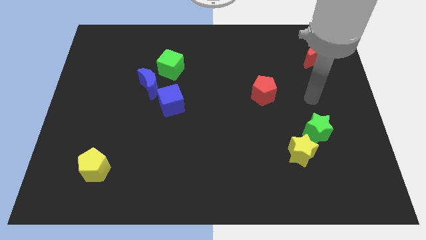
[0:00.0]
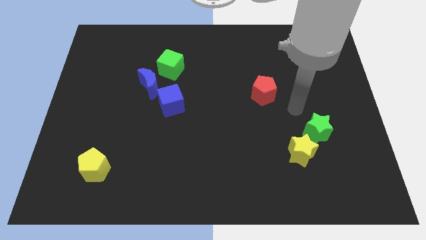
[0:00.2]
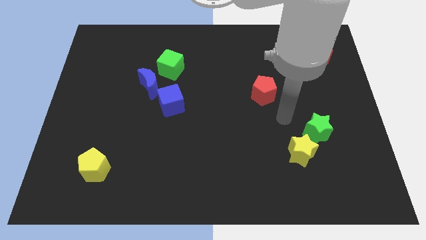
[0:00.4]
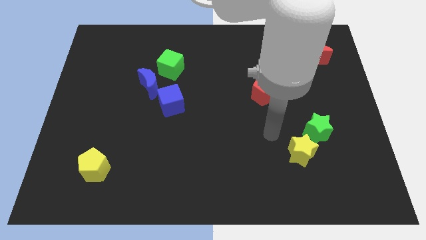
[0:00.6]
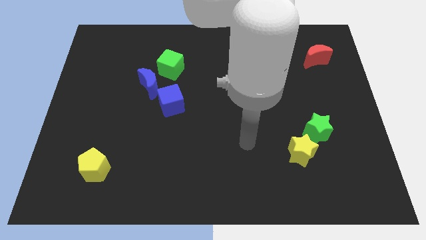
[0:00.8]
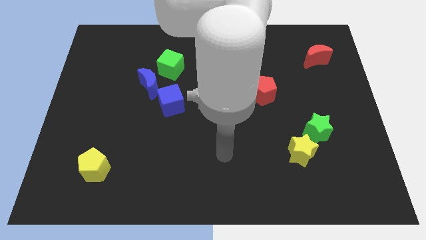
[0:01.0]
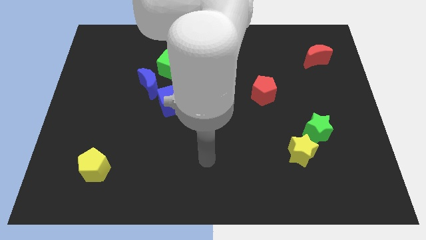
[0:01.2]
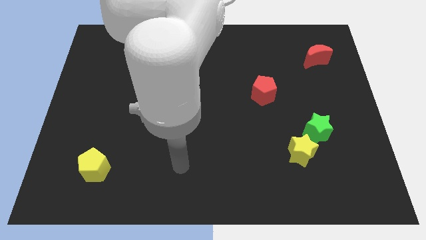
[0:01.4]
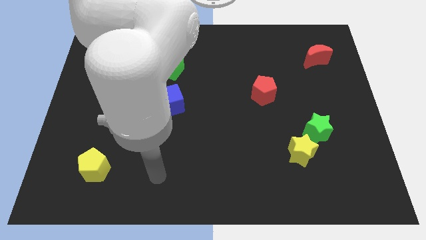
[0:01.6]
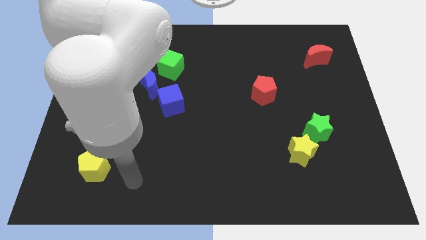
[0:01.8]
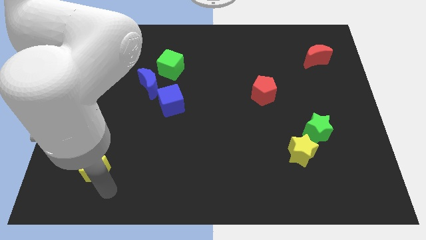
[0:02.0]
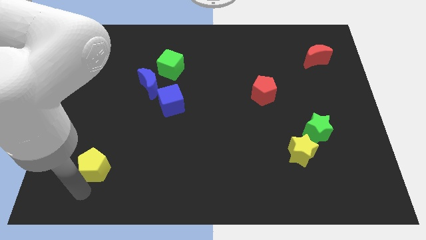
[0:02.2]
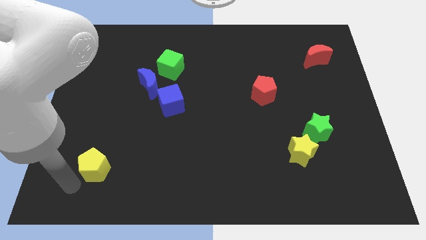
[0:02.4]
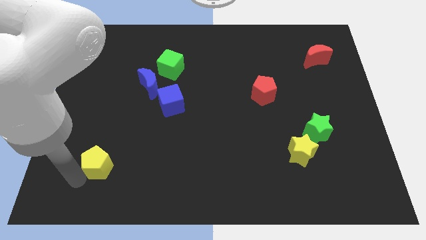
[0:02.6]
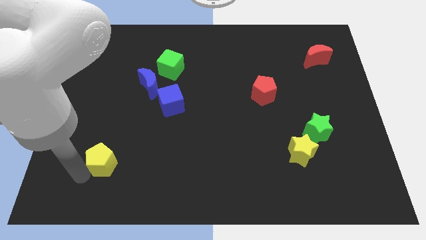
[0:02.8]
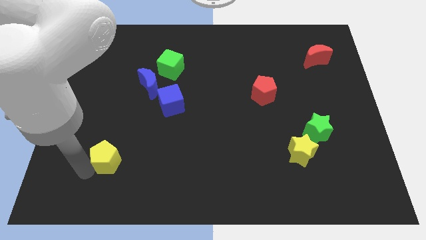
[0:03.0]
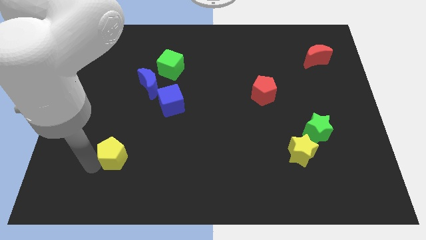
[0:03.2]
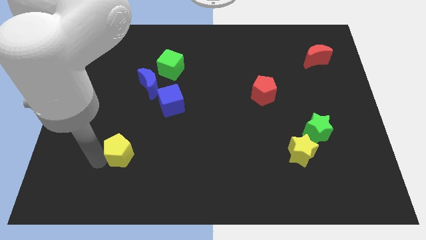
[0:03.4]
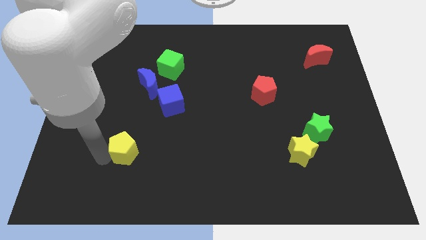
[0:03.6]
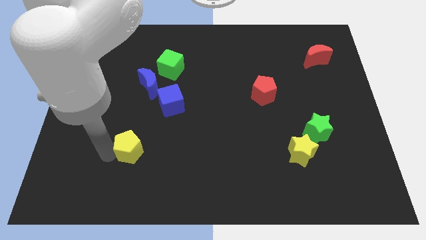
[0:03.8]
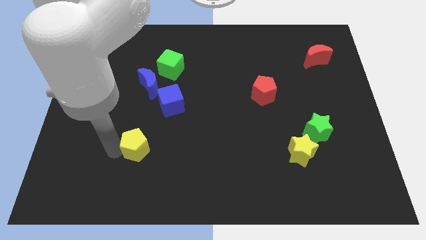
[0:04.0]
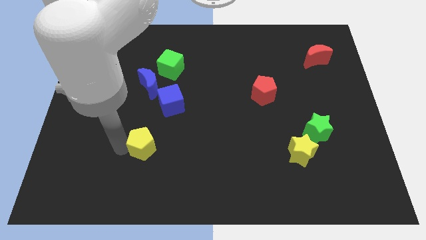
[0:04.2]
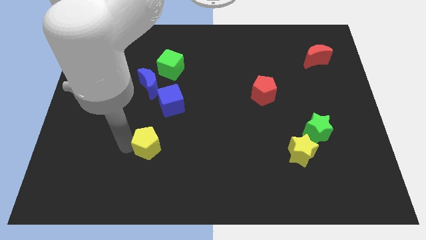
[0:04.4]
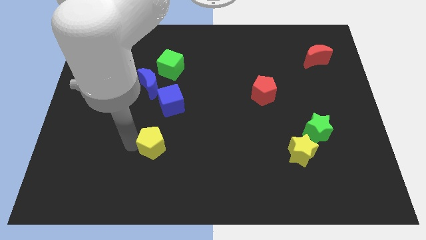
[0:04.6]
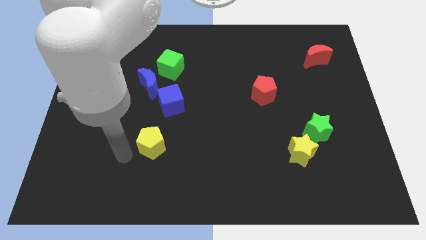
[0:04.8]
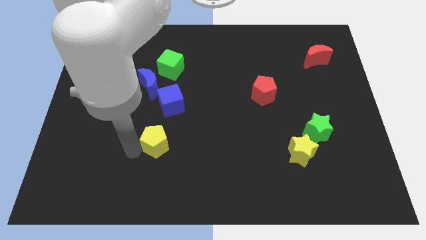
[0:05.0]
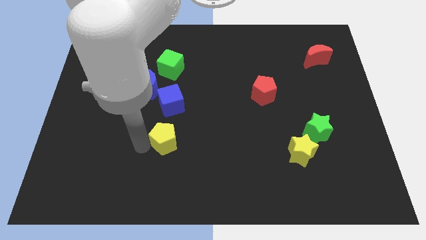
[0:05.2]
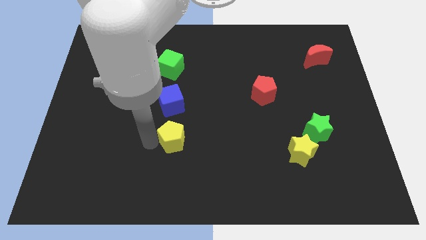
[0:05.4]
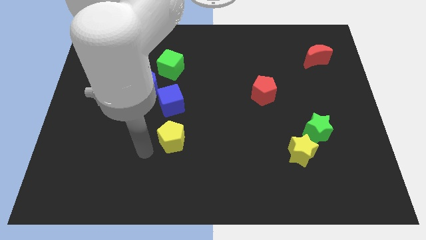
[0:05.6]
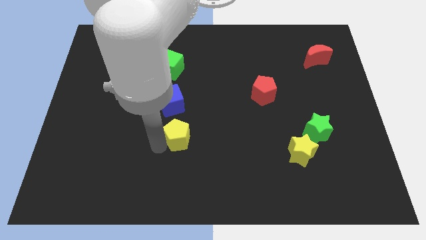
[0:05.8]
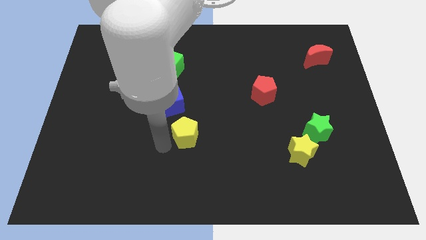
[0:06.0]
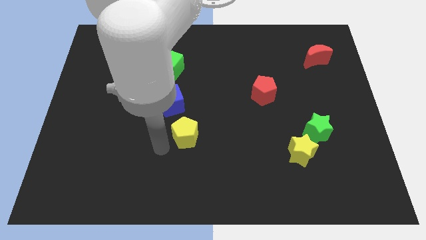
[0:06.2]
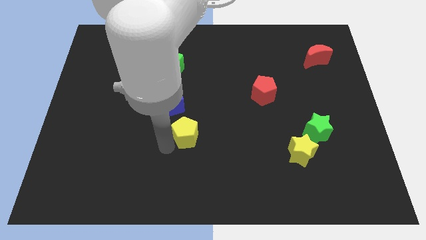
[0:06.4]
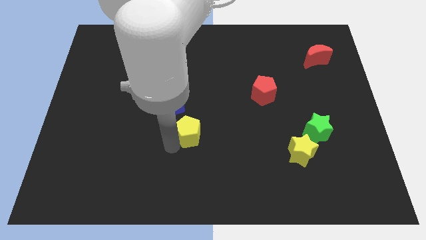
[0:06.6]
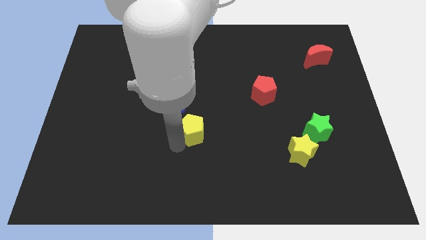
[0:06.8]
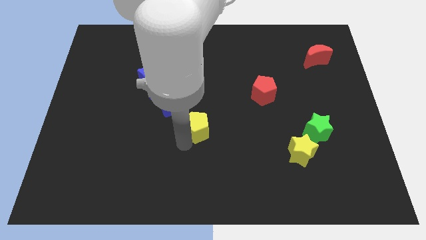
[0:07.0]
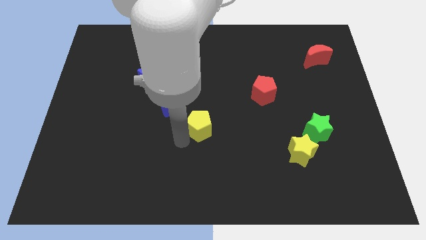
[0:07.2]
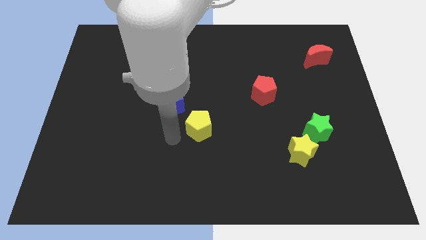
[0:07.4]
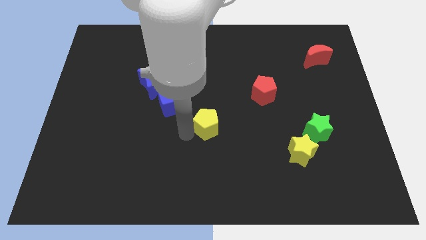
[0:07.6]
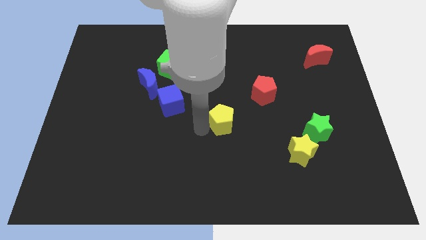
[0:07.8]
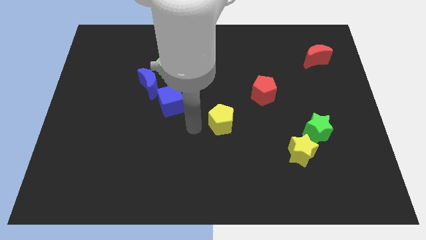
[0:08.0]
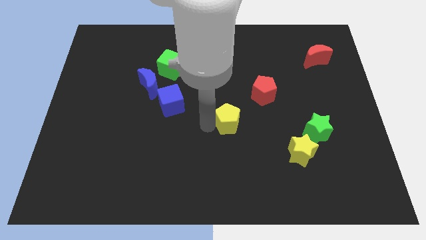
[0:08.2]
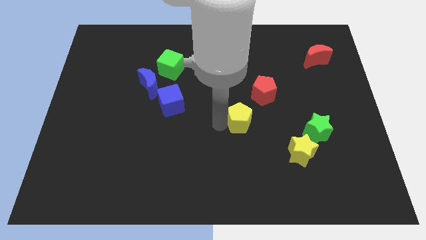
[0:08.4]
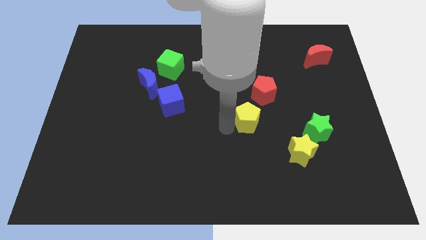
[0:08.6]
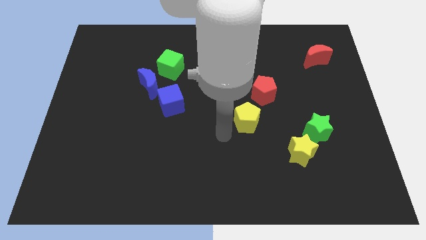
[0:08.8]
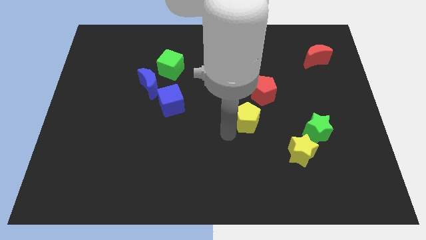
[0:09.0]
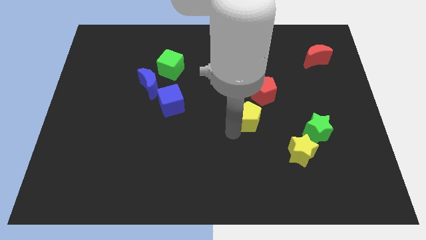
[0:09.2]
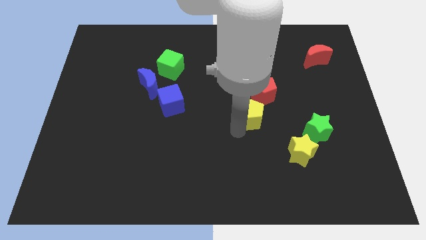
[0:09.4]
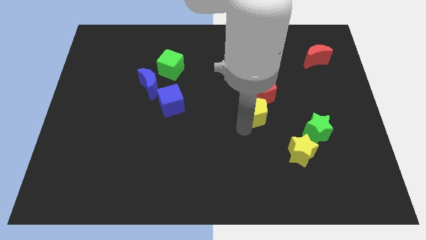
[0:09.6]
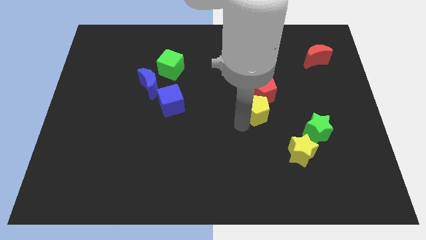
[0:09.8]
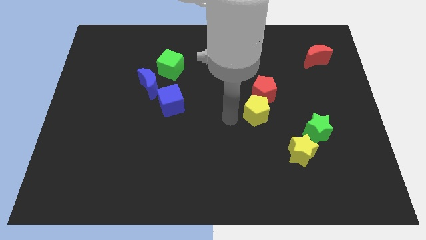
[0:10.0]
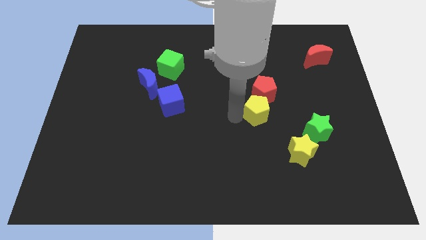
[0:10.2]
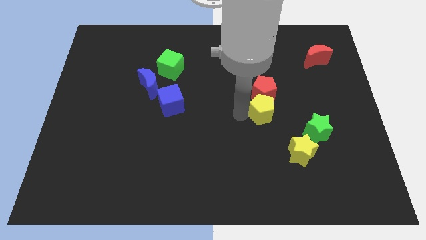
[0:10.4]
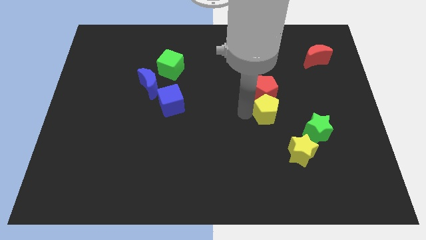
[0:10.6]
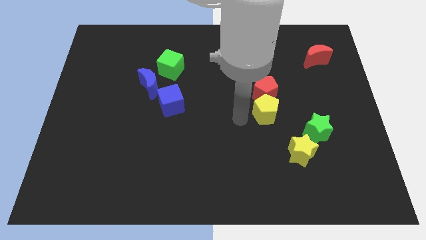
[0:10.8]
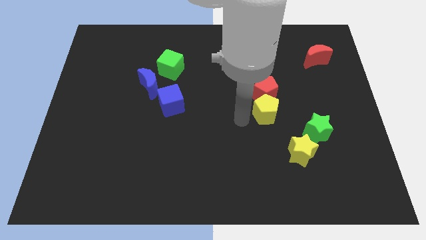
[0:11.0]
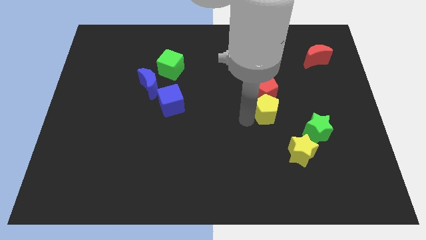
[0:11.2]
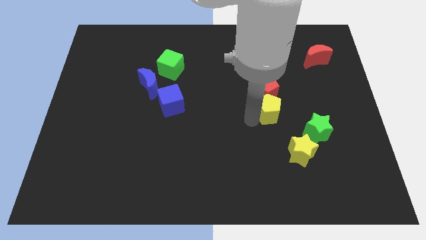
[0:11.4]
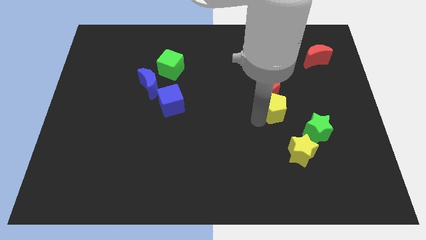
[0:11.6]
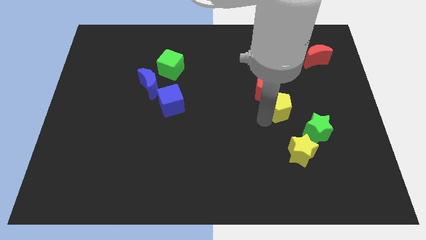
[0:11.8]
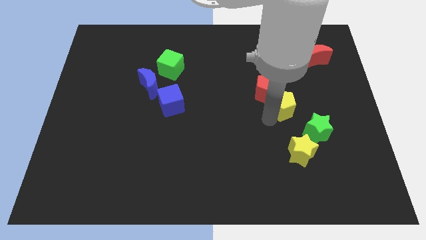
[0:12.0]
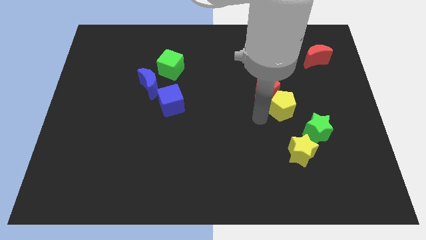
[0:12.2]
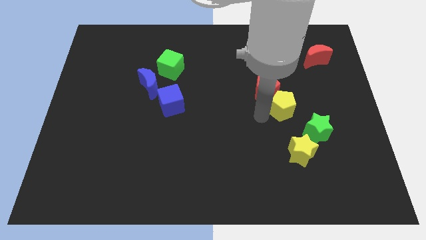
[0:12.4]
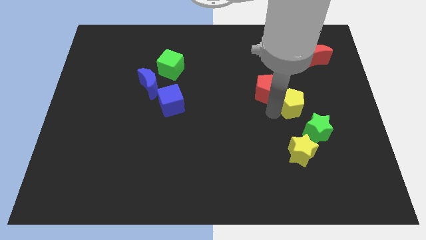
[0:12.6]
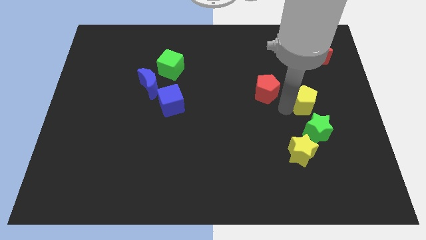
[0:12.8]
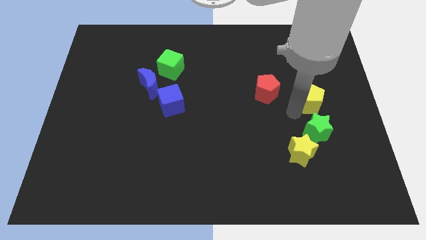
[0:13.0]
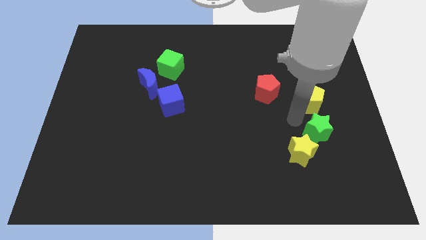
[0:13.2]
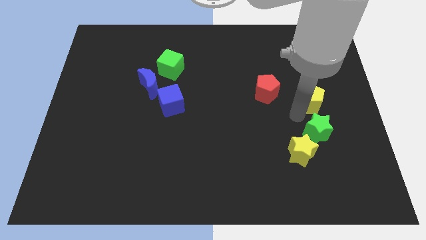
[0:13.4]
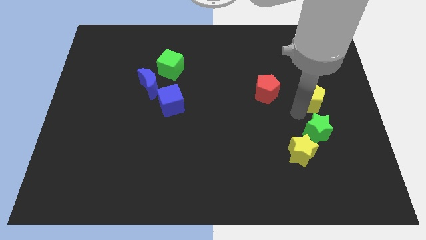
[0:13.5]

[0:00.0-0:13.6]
push the yellow pentagon to the bottom side of the red moon
